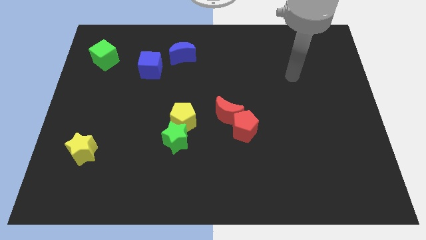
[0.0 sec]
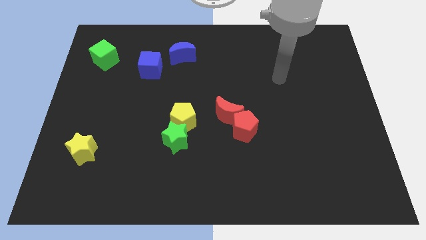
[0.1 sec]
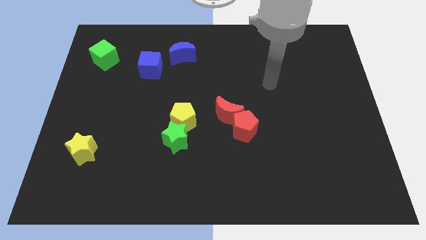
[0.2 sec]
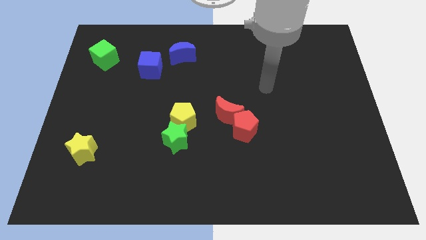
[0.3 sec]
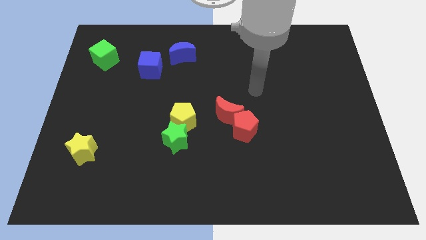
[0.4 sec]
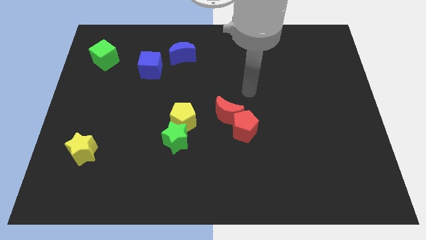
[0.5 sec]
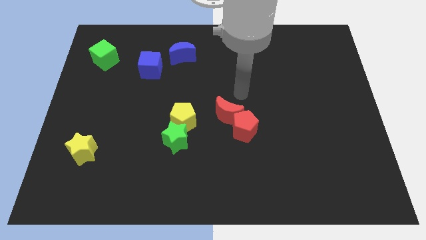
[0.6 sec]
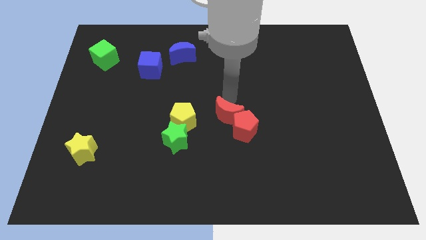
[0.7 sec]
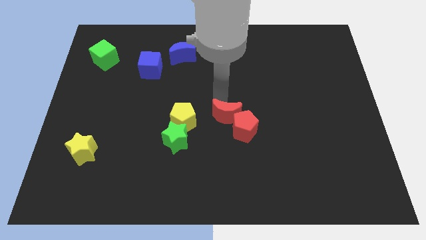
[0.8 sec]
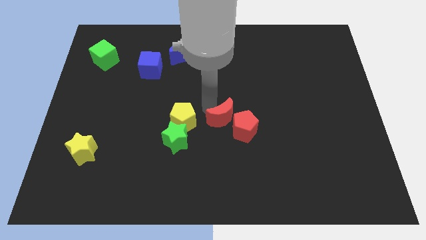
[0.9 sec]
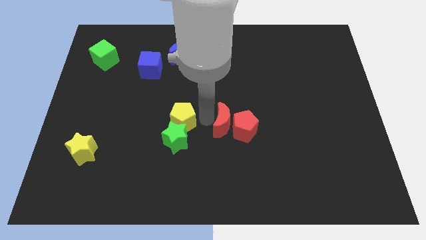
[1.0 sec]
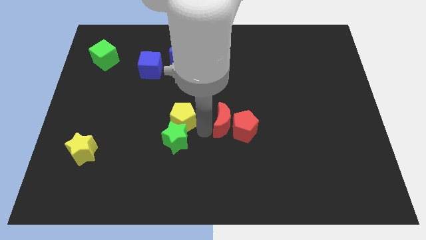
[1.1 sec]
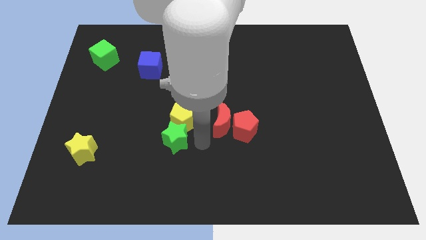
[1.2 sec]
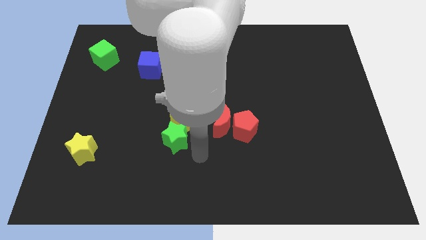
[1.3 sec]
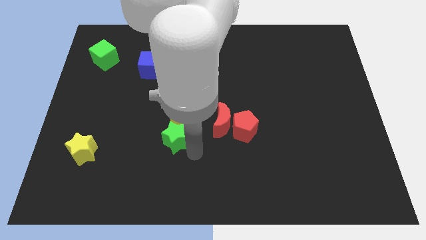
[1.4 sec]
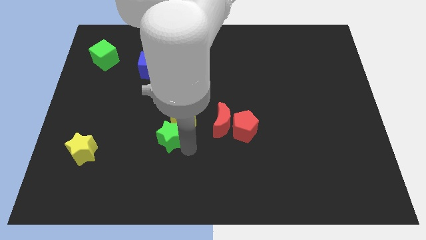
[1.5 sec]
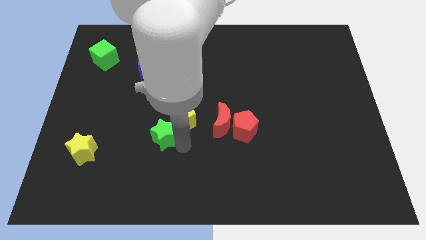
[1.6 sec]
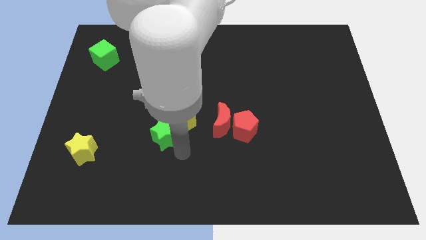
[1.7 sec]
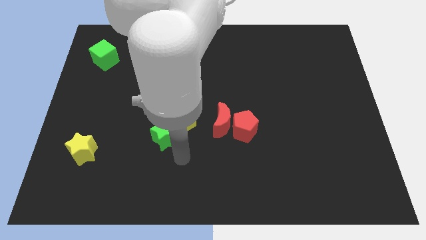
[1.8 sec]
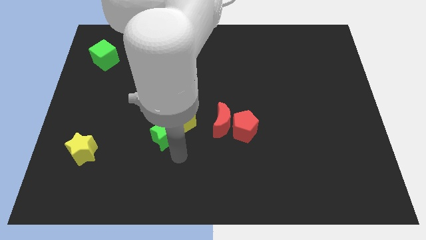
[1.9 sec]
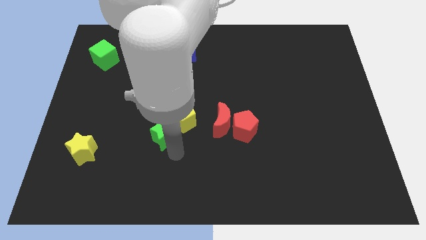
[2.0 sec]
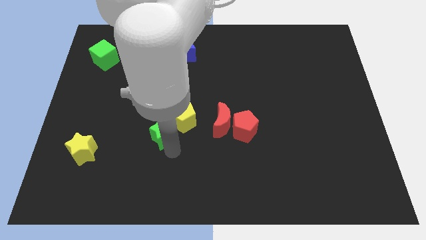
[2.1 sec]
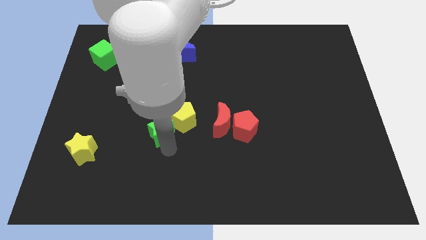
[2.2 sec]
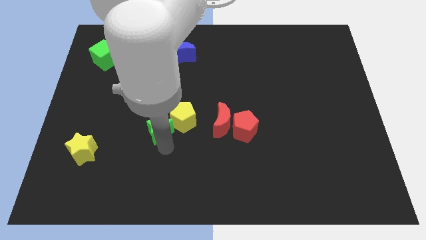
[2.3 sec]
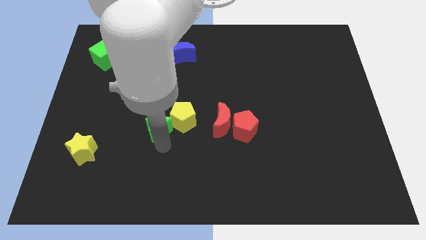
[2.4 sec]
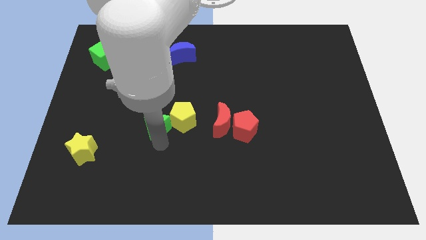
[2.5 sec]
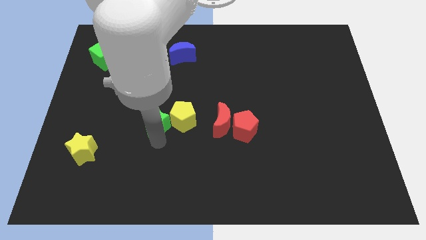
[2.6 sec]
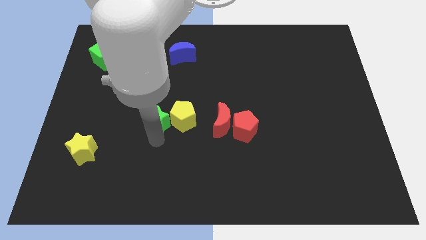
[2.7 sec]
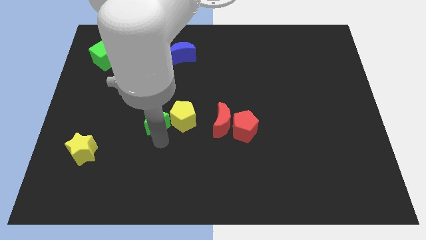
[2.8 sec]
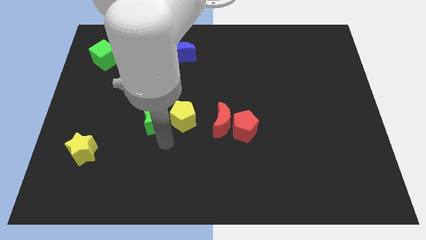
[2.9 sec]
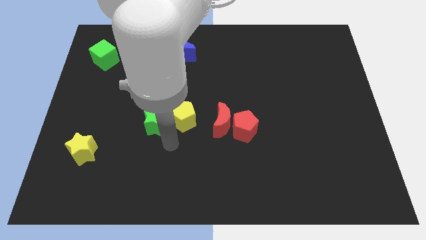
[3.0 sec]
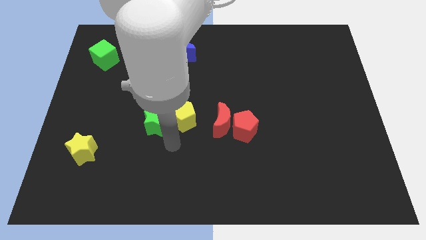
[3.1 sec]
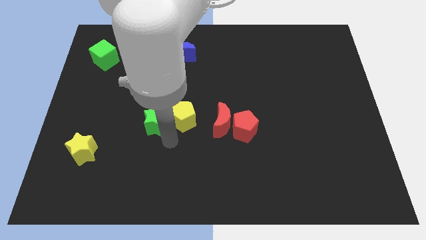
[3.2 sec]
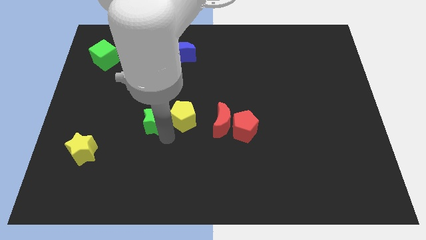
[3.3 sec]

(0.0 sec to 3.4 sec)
move the green star up and then to the left somewhat

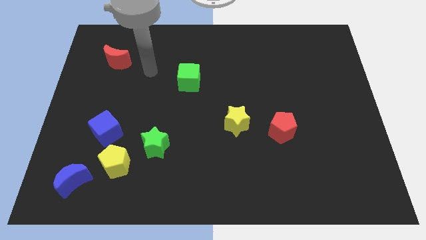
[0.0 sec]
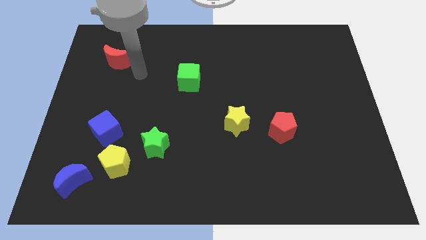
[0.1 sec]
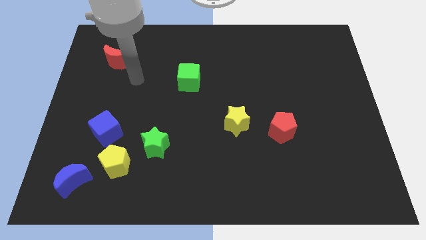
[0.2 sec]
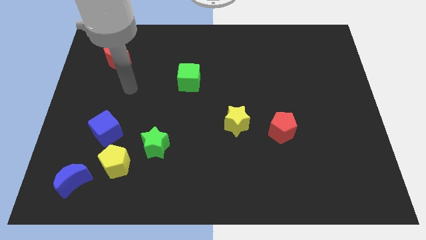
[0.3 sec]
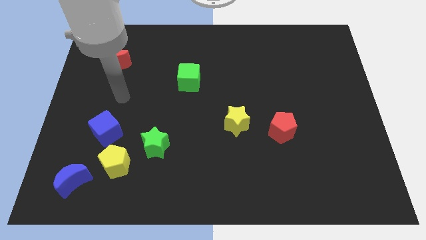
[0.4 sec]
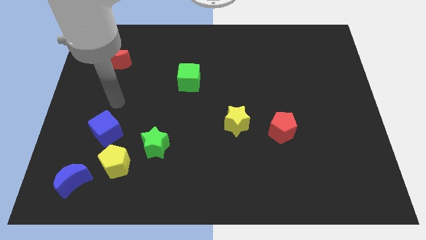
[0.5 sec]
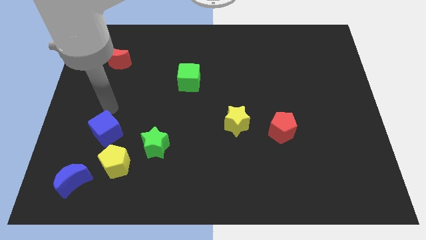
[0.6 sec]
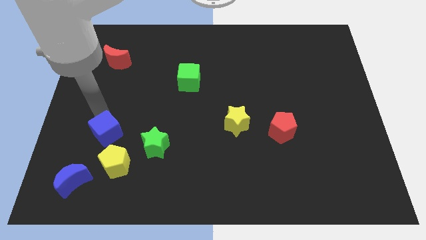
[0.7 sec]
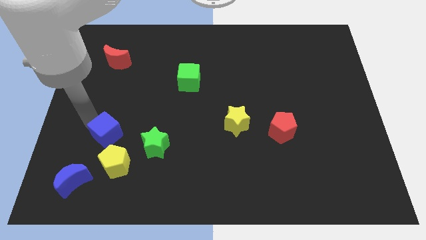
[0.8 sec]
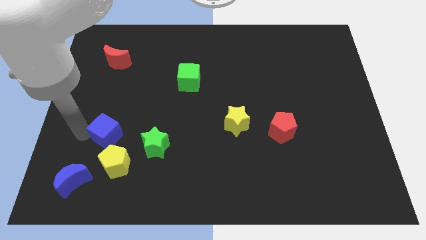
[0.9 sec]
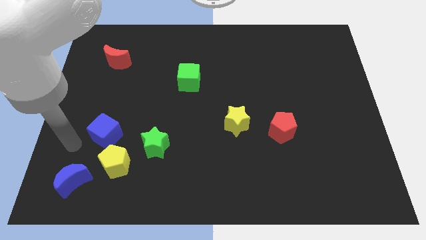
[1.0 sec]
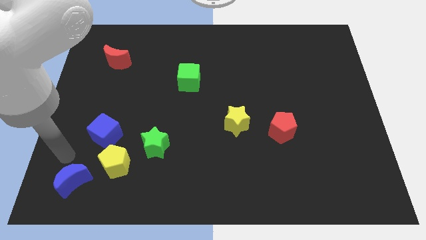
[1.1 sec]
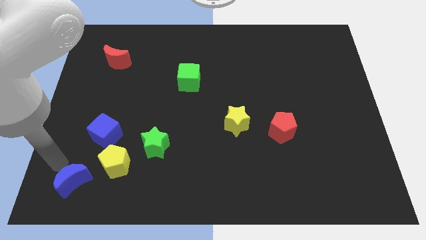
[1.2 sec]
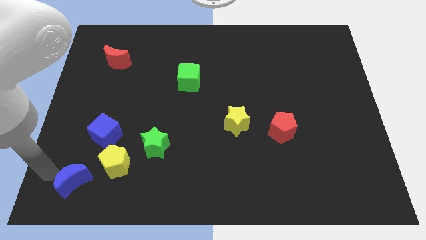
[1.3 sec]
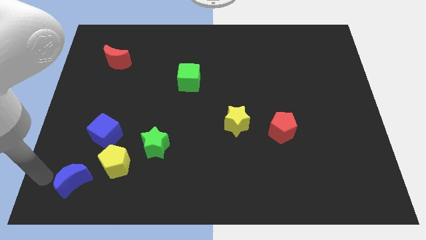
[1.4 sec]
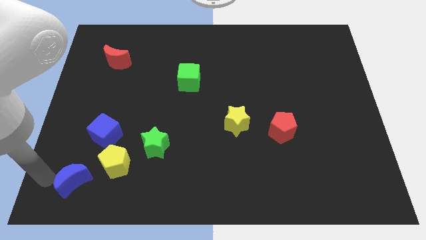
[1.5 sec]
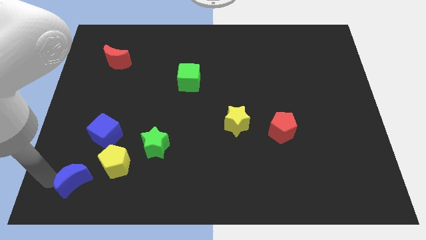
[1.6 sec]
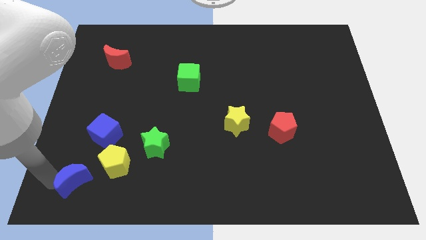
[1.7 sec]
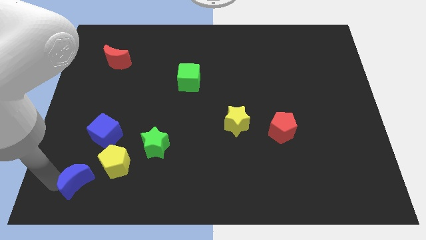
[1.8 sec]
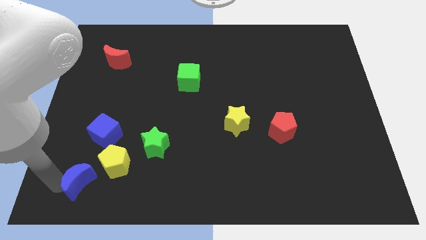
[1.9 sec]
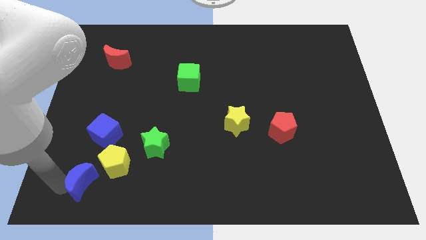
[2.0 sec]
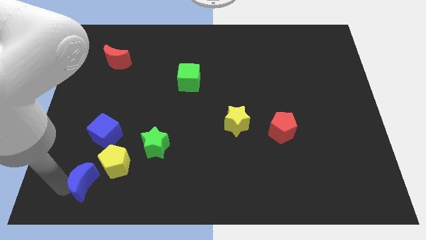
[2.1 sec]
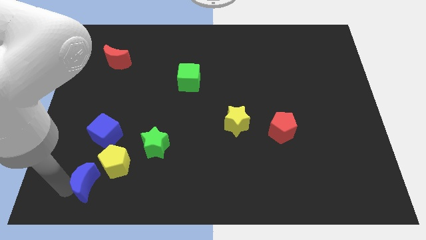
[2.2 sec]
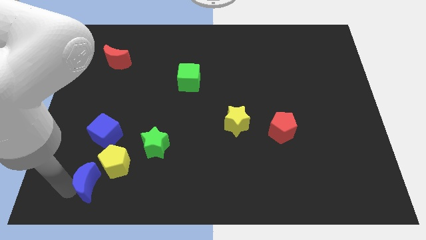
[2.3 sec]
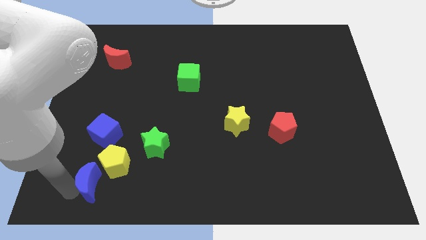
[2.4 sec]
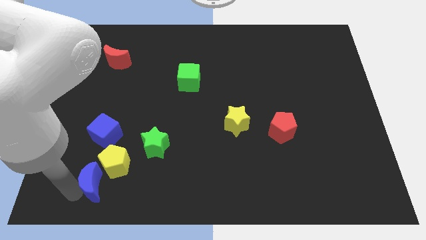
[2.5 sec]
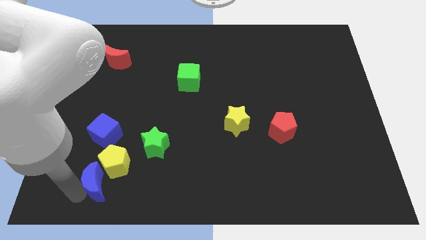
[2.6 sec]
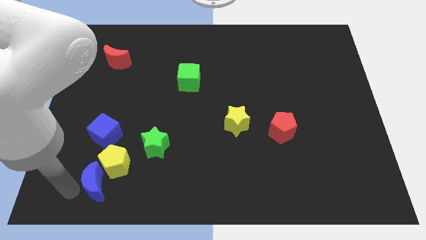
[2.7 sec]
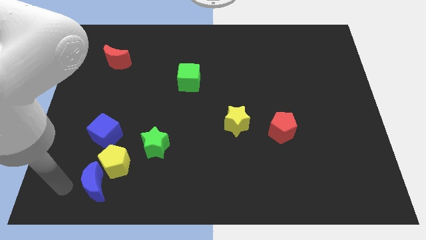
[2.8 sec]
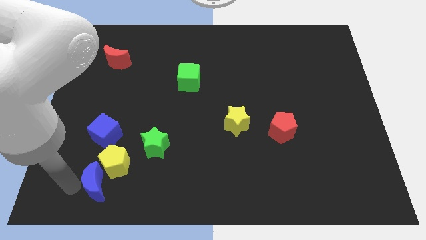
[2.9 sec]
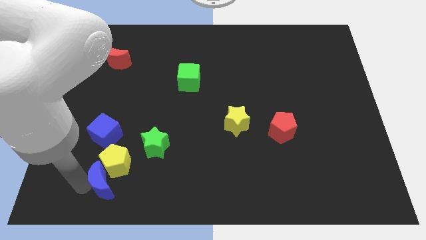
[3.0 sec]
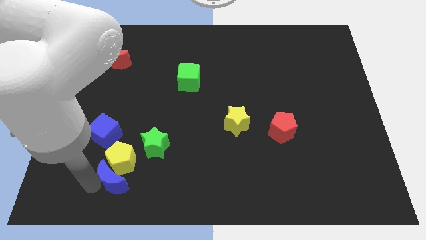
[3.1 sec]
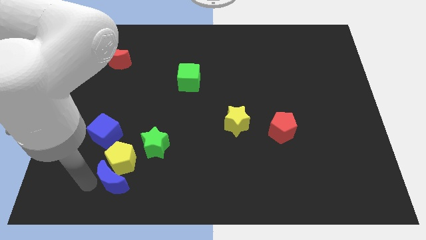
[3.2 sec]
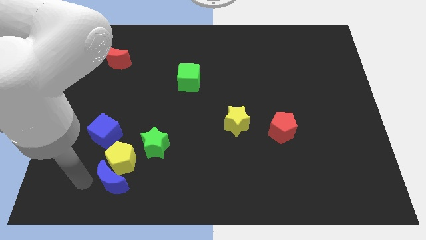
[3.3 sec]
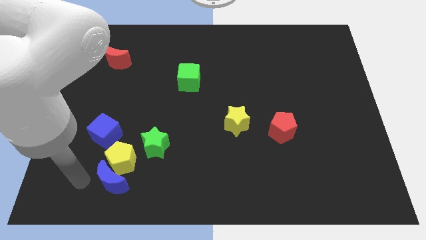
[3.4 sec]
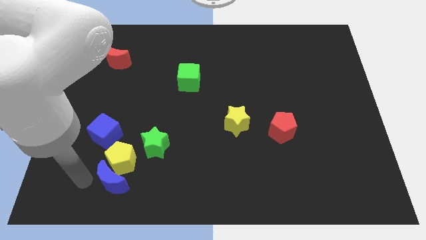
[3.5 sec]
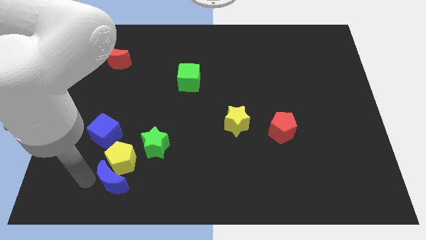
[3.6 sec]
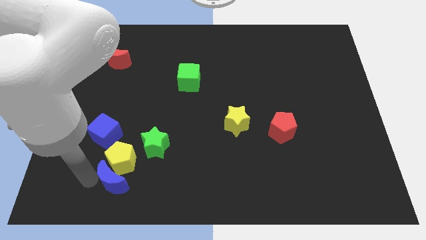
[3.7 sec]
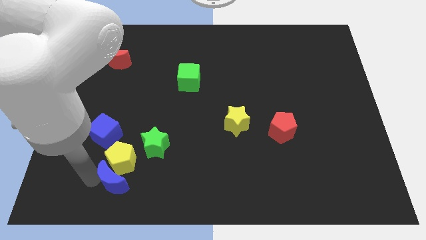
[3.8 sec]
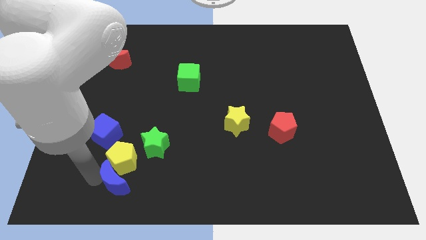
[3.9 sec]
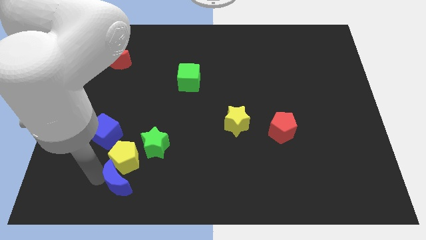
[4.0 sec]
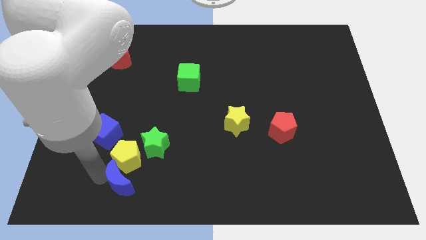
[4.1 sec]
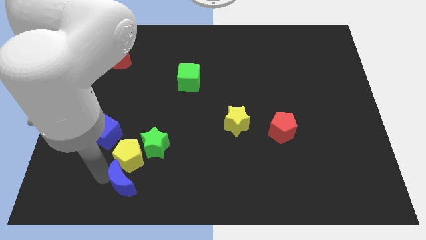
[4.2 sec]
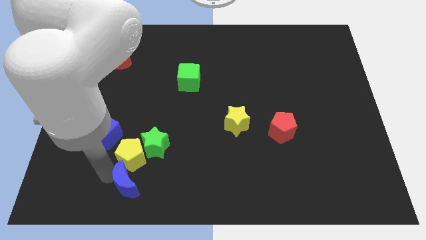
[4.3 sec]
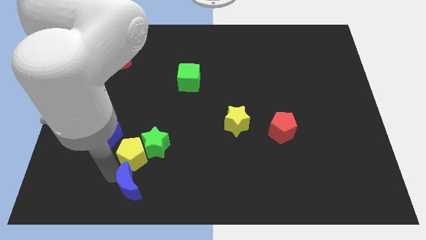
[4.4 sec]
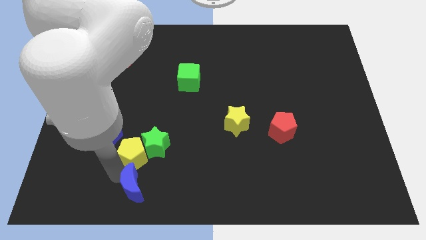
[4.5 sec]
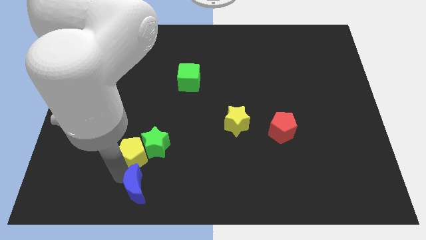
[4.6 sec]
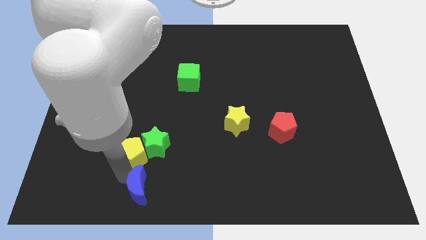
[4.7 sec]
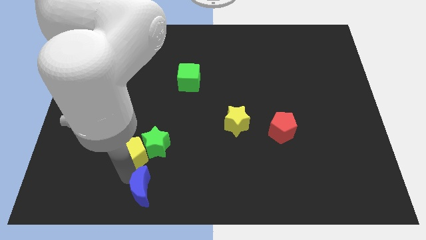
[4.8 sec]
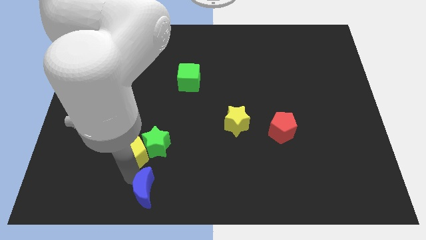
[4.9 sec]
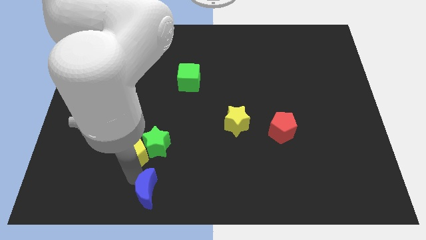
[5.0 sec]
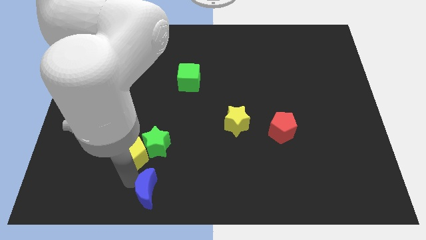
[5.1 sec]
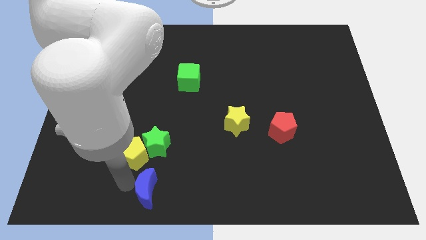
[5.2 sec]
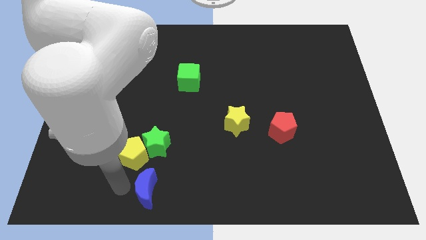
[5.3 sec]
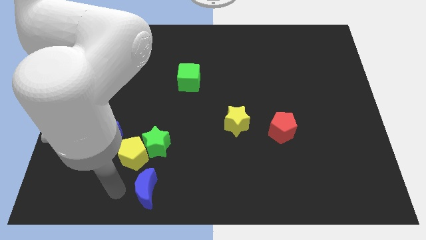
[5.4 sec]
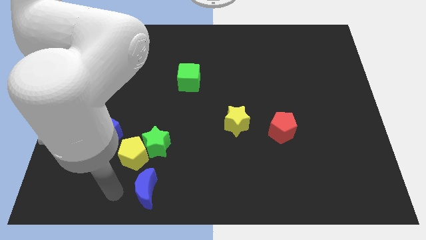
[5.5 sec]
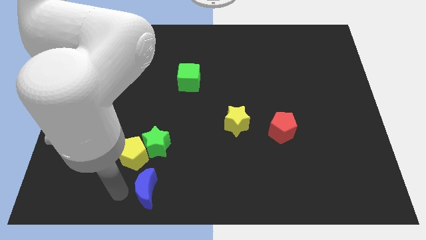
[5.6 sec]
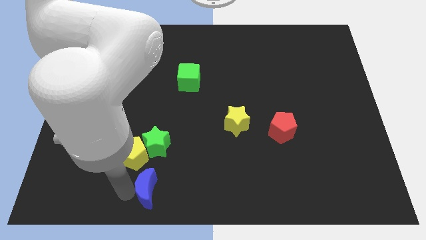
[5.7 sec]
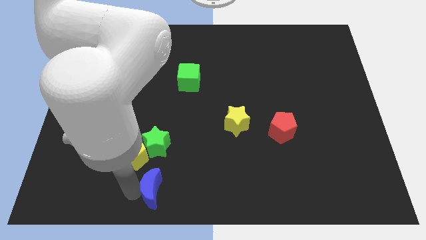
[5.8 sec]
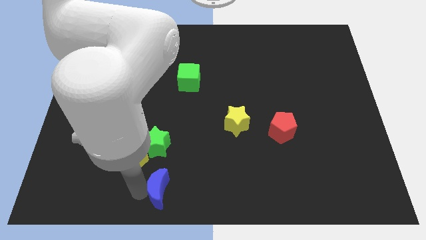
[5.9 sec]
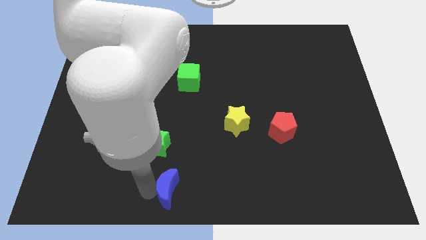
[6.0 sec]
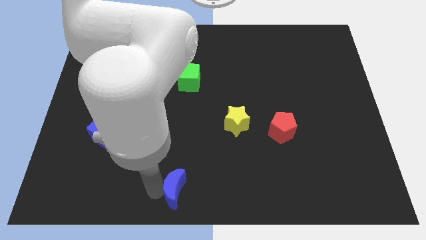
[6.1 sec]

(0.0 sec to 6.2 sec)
move the blue moon right
